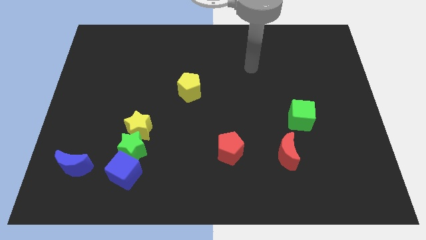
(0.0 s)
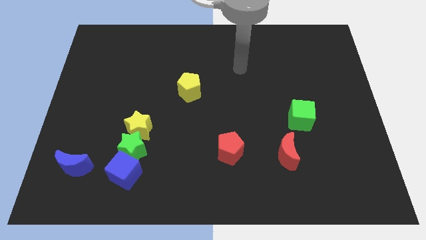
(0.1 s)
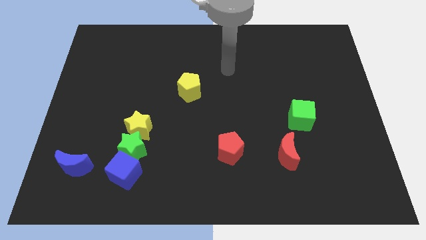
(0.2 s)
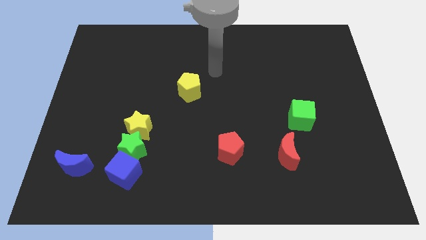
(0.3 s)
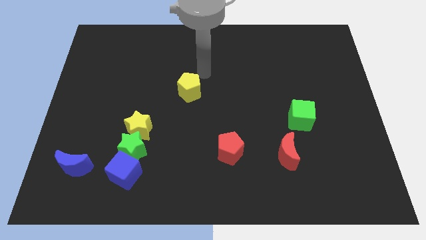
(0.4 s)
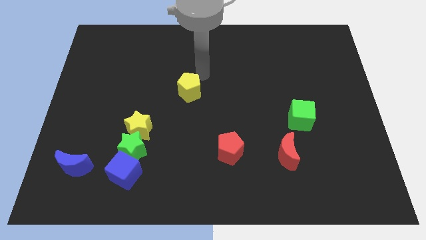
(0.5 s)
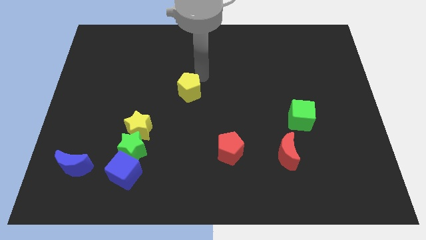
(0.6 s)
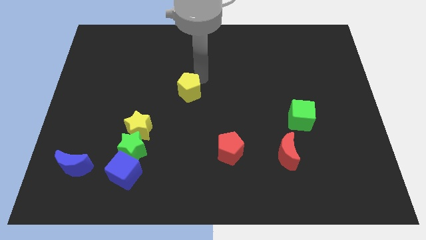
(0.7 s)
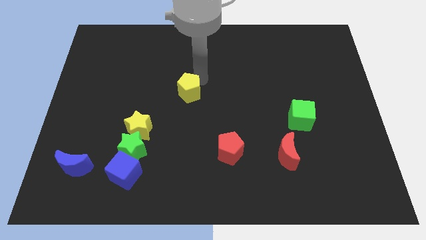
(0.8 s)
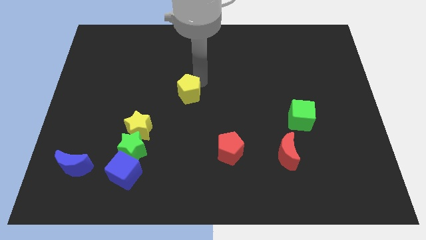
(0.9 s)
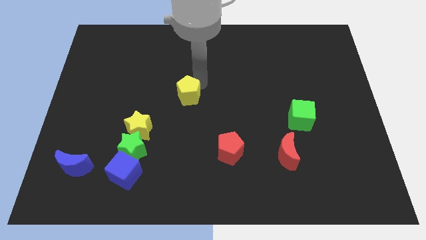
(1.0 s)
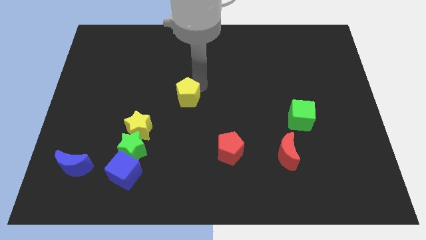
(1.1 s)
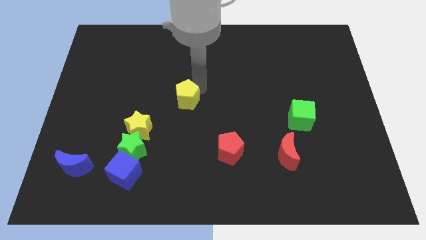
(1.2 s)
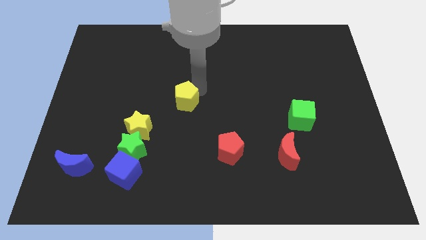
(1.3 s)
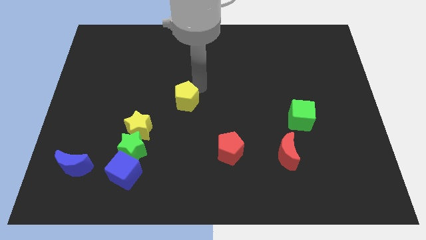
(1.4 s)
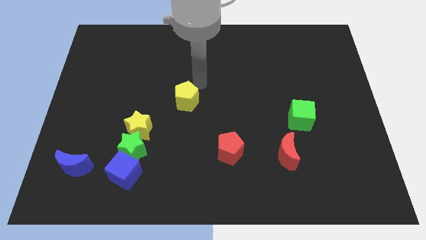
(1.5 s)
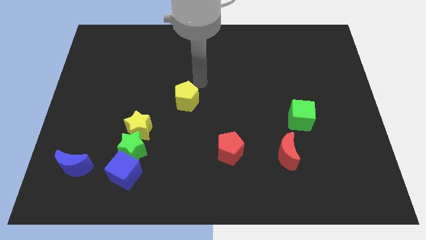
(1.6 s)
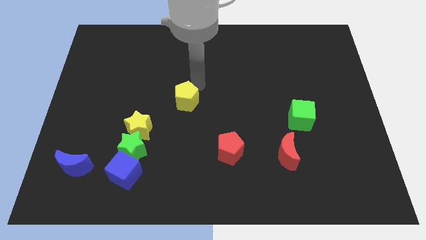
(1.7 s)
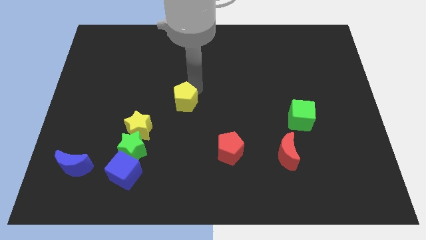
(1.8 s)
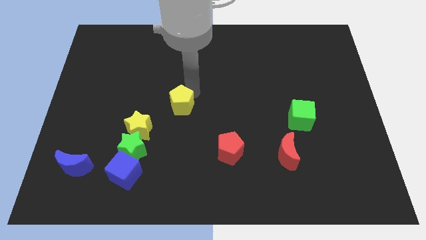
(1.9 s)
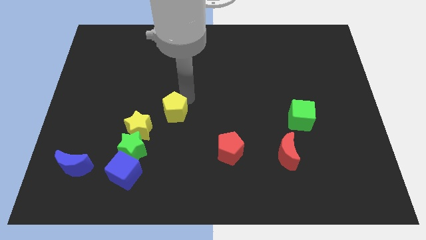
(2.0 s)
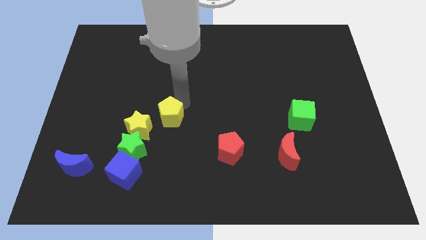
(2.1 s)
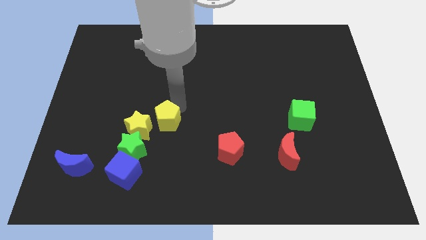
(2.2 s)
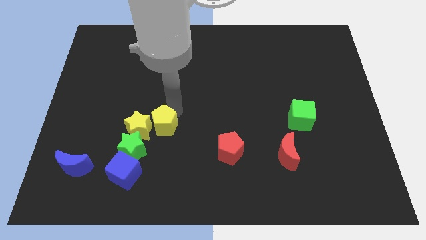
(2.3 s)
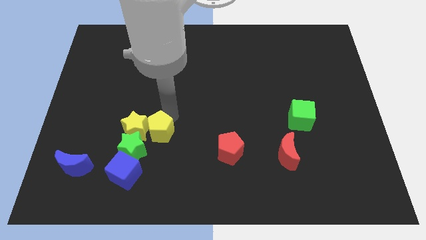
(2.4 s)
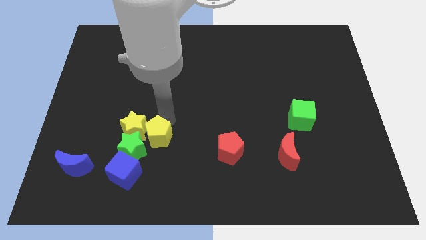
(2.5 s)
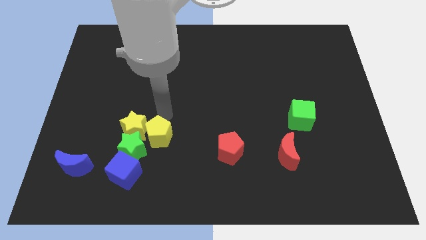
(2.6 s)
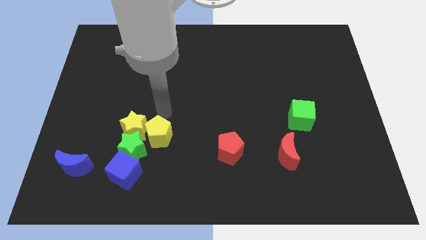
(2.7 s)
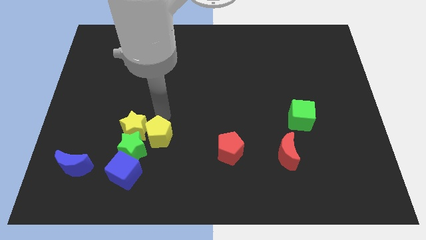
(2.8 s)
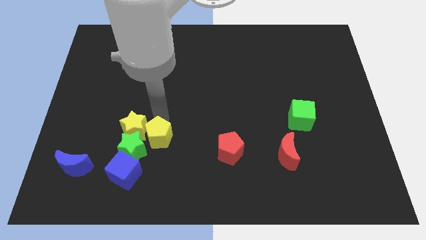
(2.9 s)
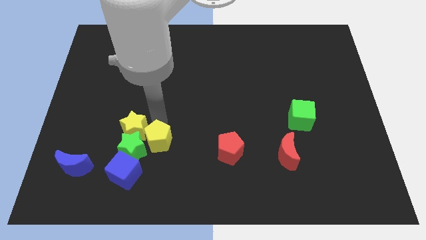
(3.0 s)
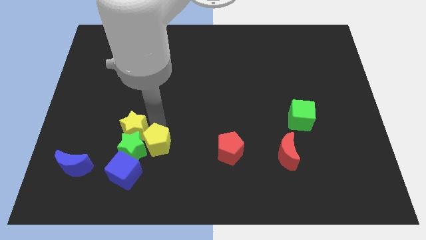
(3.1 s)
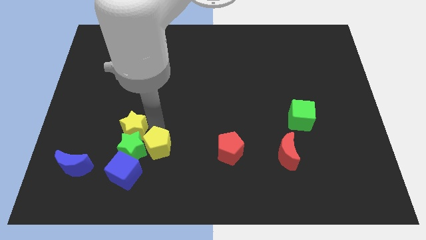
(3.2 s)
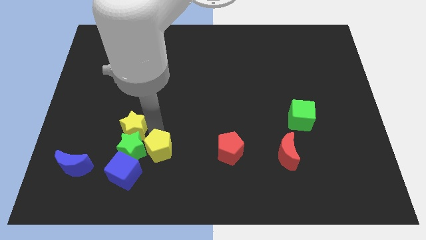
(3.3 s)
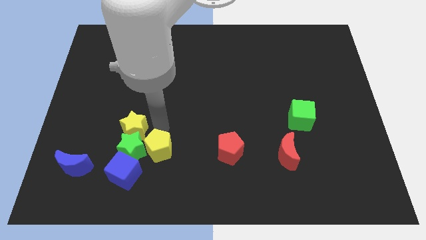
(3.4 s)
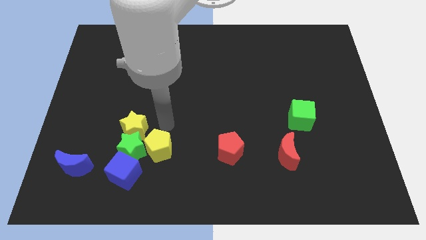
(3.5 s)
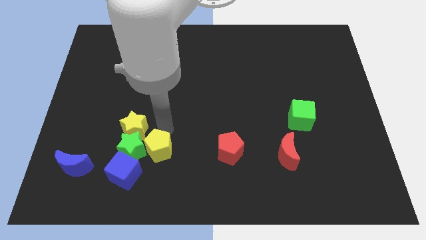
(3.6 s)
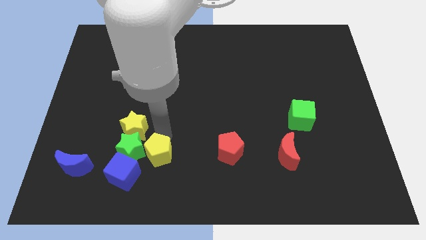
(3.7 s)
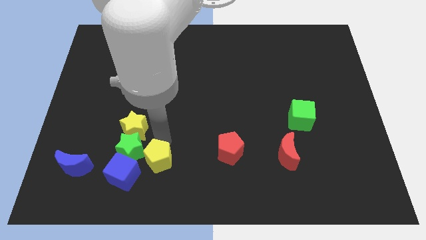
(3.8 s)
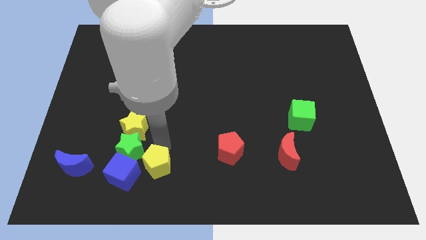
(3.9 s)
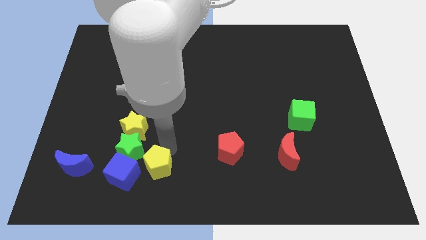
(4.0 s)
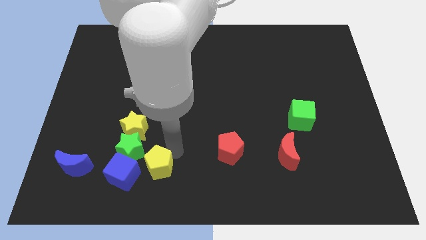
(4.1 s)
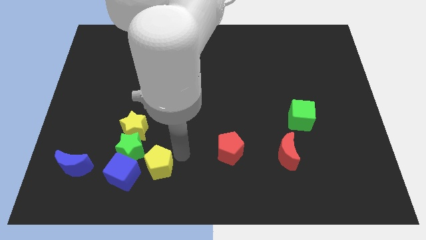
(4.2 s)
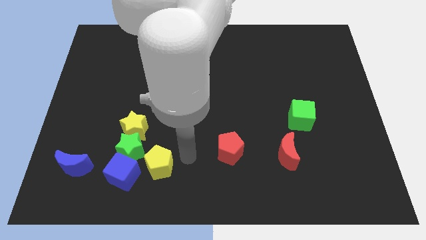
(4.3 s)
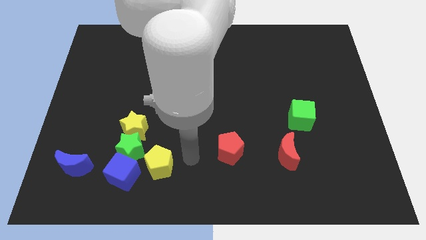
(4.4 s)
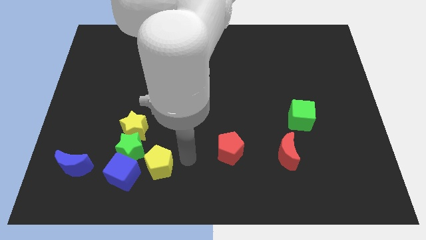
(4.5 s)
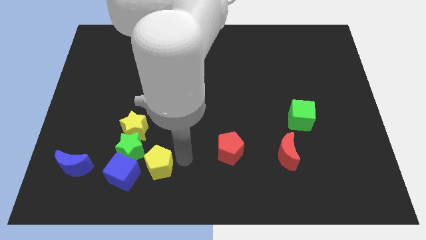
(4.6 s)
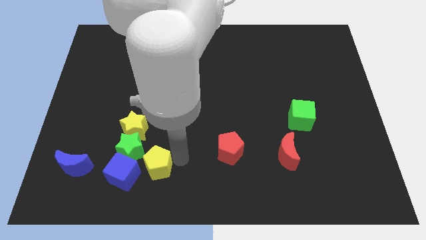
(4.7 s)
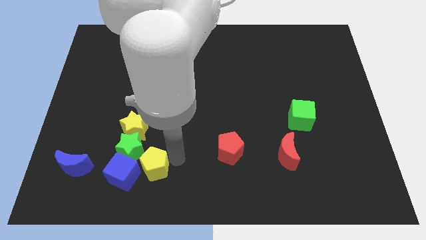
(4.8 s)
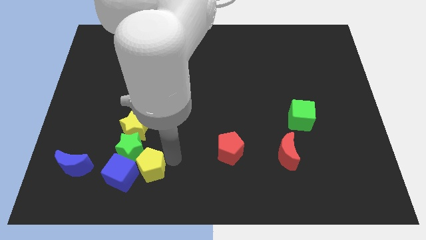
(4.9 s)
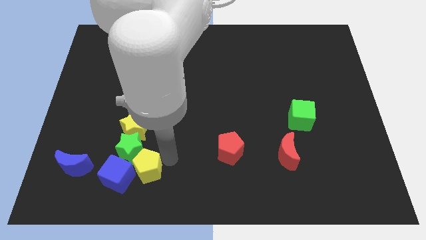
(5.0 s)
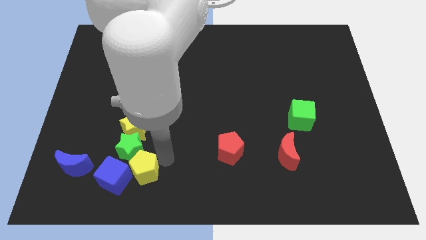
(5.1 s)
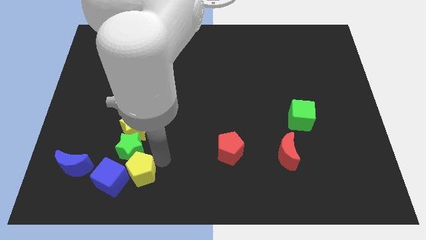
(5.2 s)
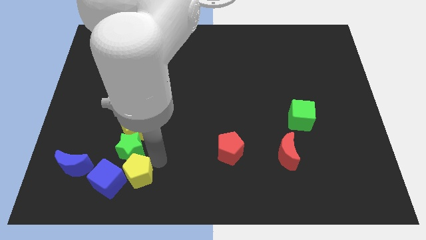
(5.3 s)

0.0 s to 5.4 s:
slide the yellow pentagon towards the blue cube

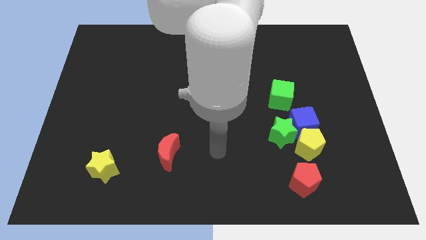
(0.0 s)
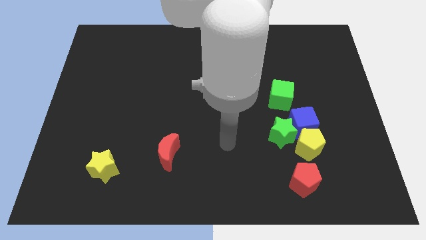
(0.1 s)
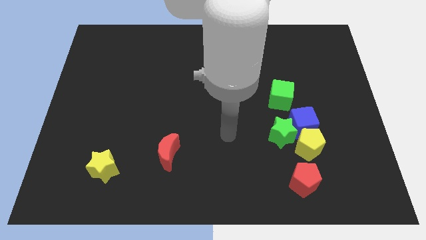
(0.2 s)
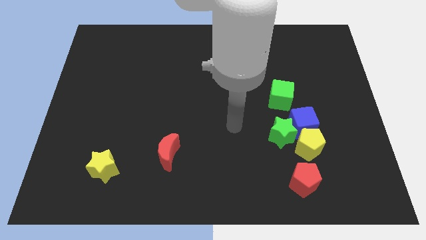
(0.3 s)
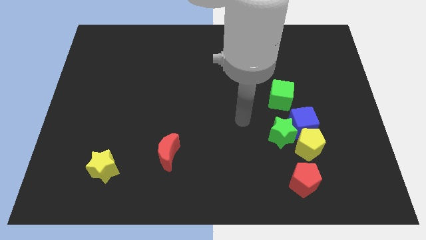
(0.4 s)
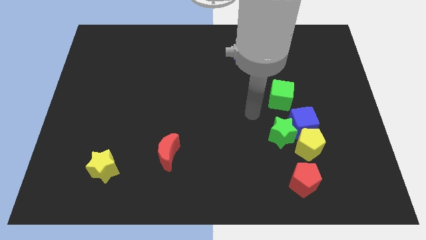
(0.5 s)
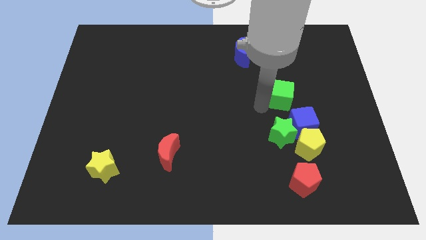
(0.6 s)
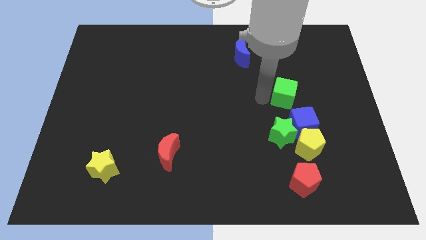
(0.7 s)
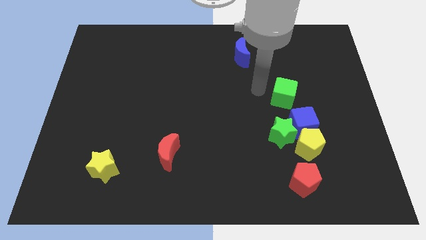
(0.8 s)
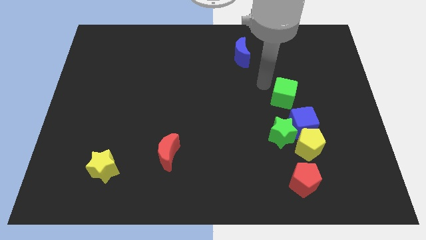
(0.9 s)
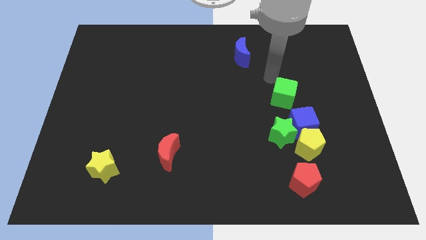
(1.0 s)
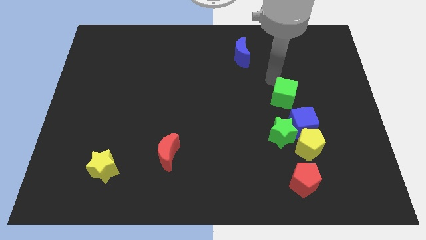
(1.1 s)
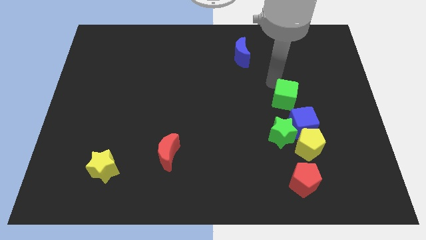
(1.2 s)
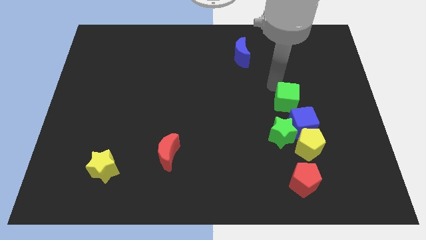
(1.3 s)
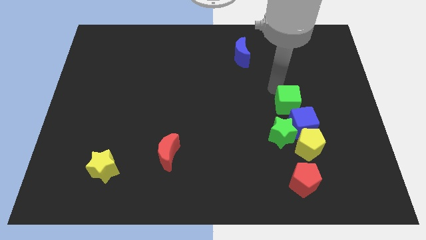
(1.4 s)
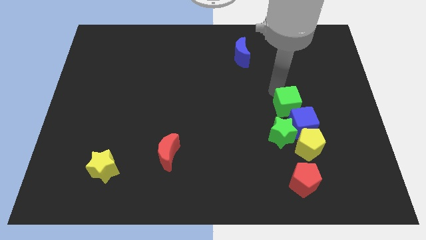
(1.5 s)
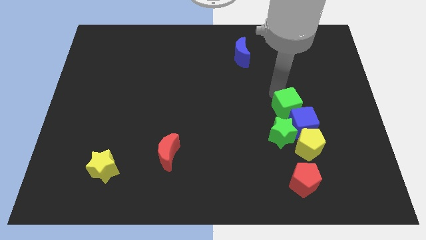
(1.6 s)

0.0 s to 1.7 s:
put the green cube next to the blue cube

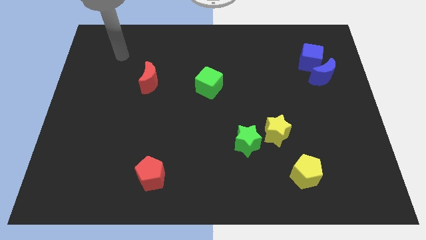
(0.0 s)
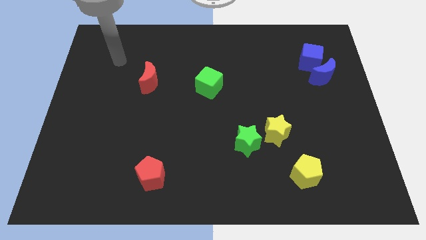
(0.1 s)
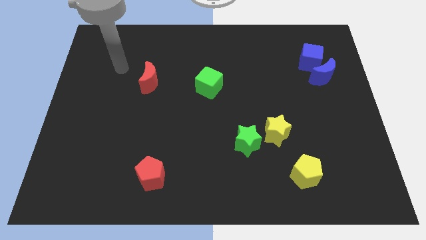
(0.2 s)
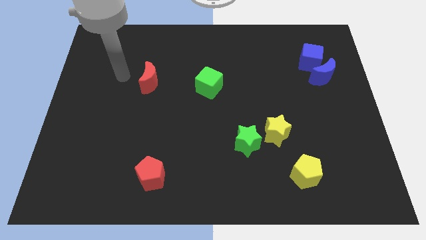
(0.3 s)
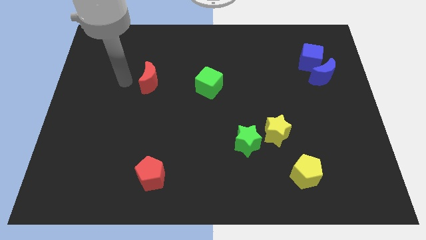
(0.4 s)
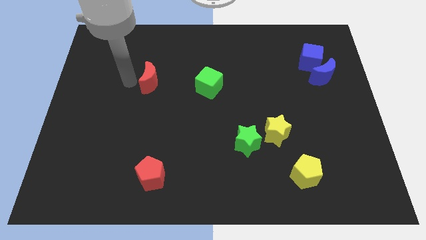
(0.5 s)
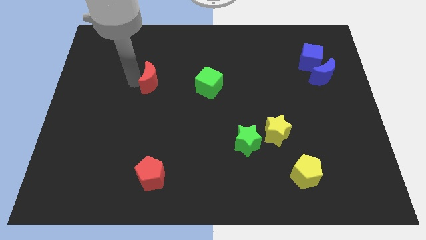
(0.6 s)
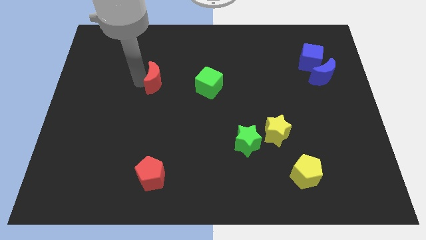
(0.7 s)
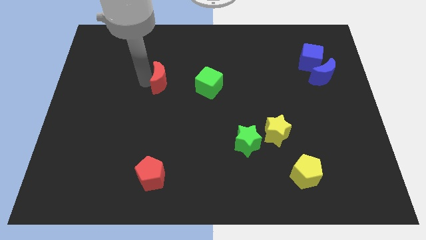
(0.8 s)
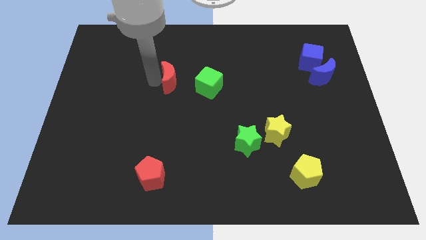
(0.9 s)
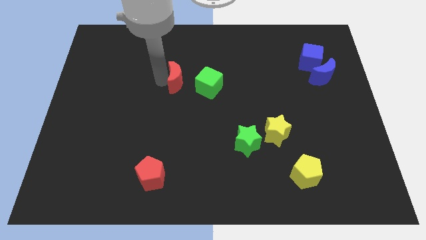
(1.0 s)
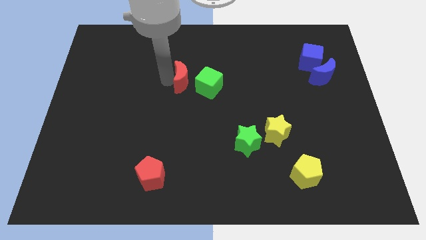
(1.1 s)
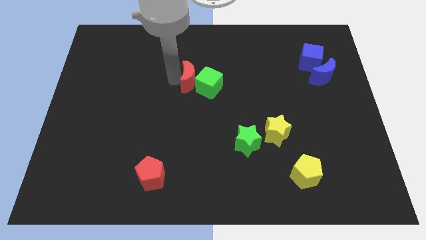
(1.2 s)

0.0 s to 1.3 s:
push the red moon next to the green cube
